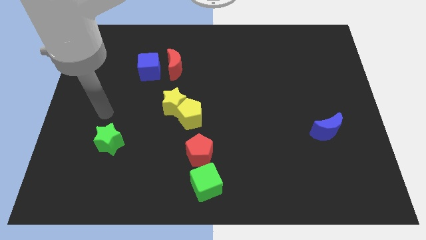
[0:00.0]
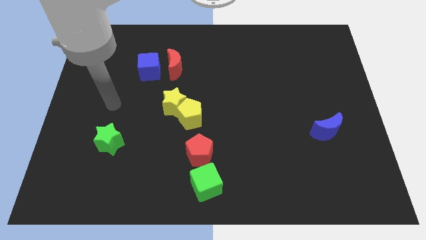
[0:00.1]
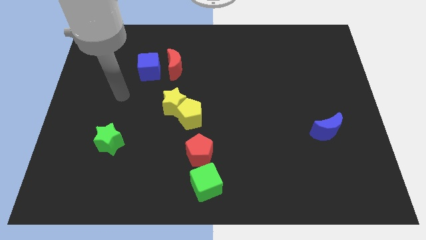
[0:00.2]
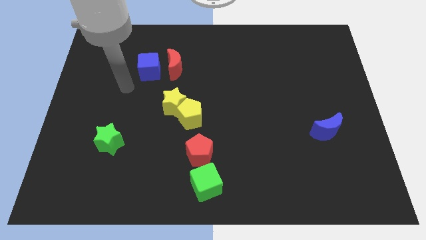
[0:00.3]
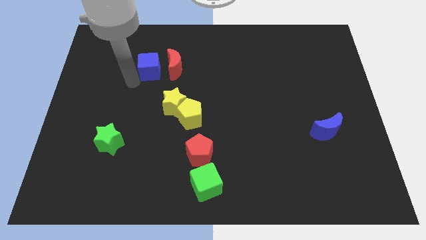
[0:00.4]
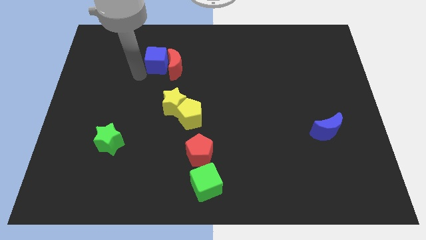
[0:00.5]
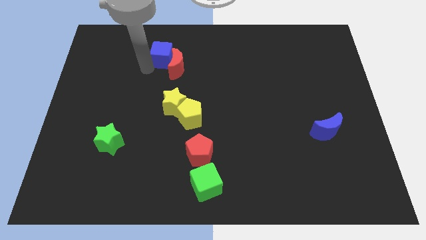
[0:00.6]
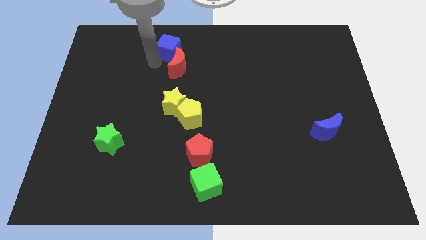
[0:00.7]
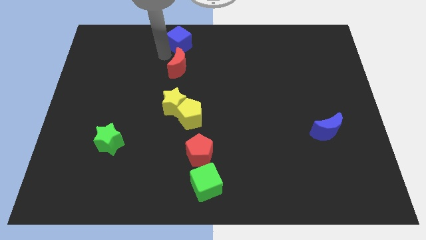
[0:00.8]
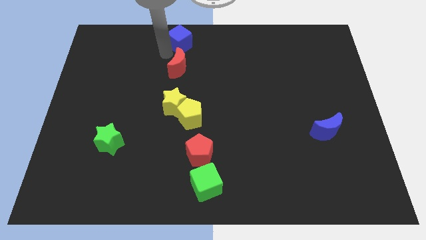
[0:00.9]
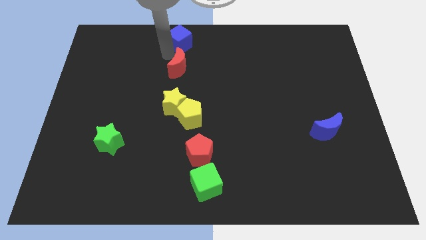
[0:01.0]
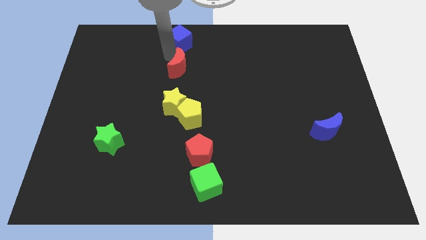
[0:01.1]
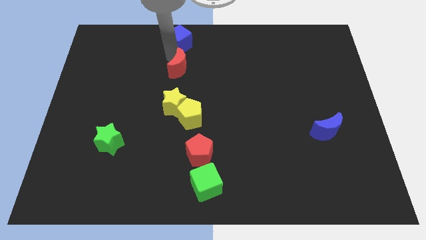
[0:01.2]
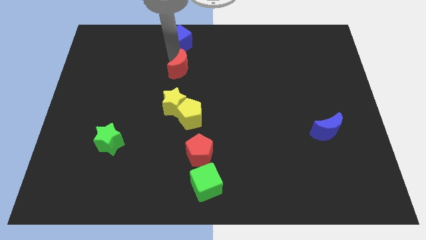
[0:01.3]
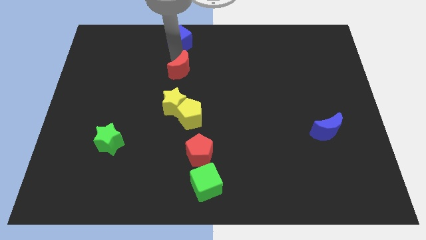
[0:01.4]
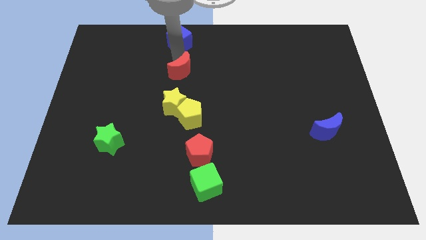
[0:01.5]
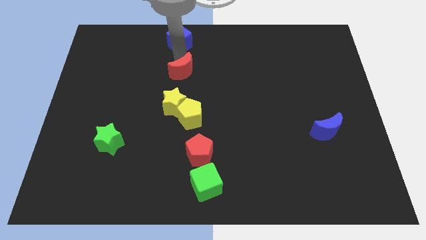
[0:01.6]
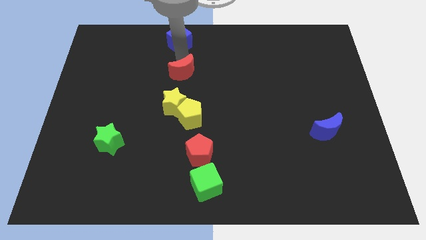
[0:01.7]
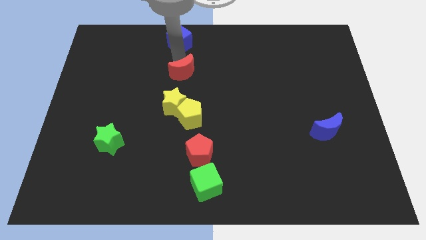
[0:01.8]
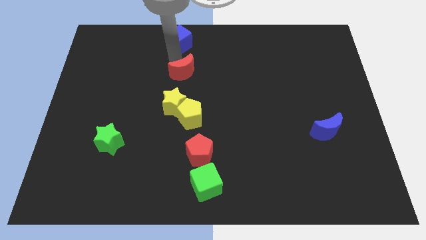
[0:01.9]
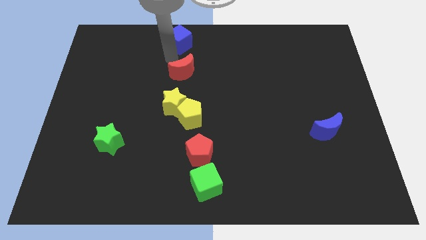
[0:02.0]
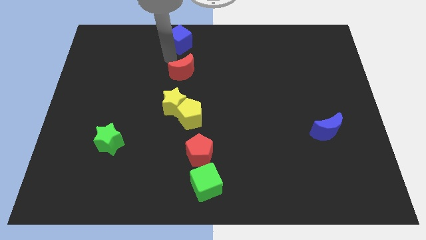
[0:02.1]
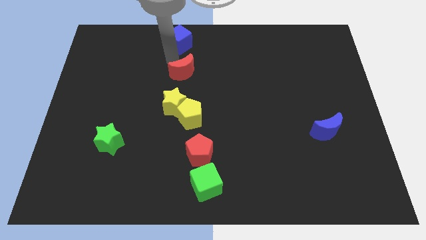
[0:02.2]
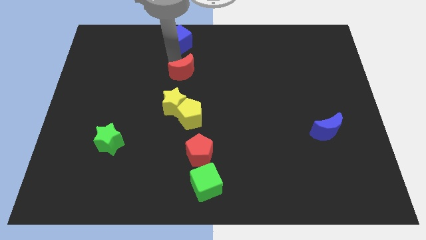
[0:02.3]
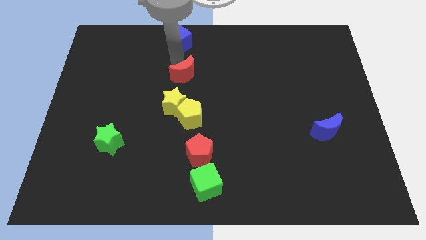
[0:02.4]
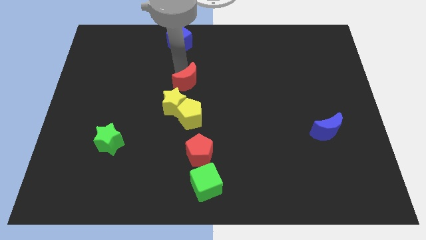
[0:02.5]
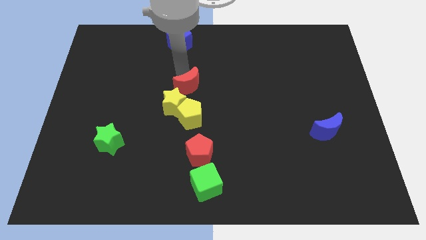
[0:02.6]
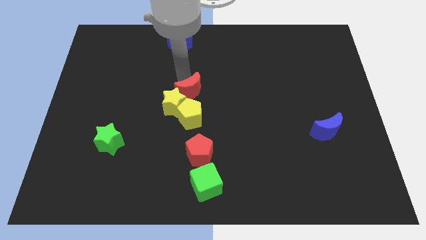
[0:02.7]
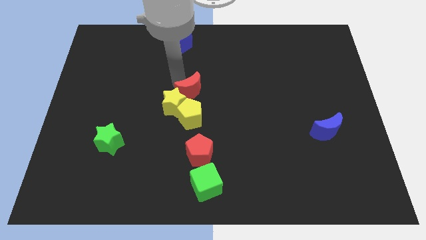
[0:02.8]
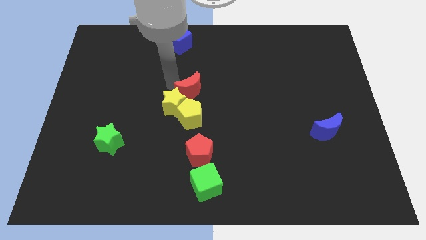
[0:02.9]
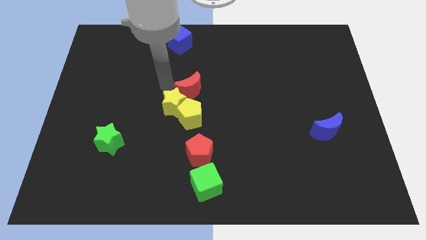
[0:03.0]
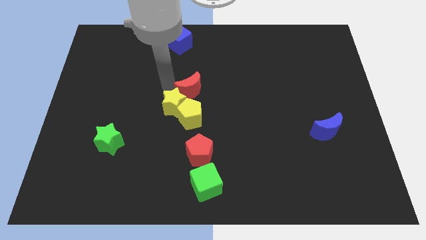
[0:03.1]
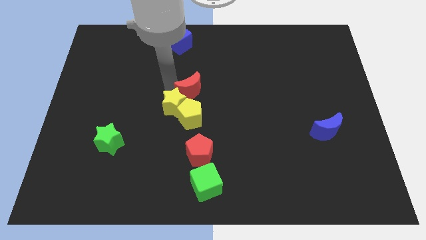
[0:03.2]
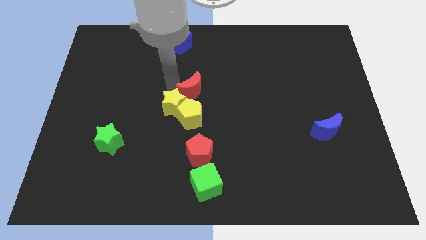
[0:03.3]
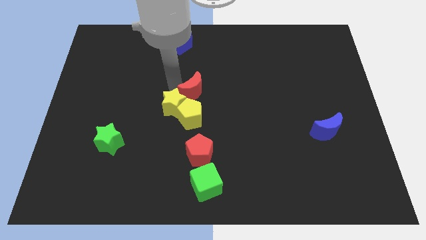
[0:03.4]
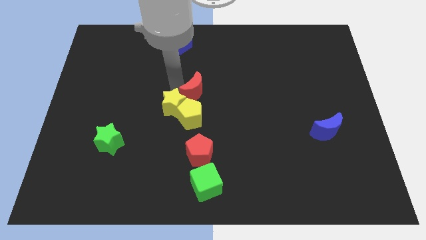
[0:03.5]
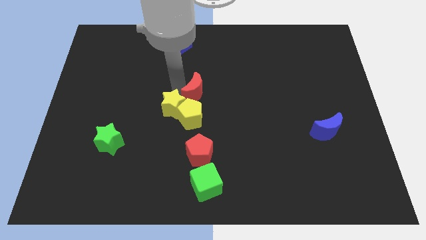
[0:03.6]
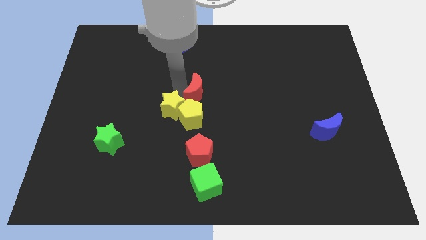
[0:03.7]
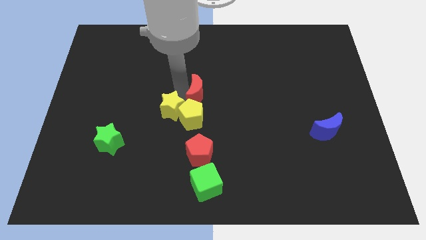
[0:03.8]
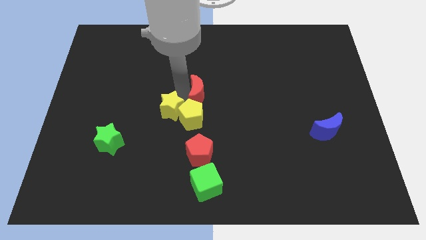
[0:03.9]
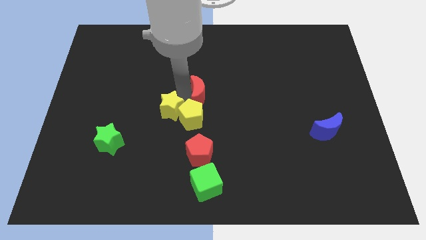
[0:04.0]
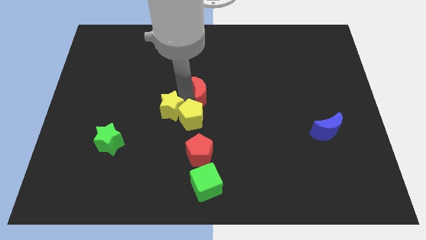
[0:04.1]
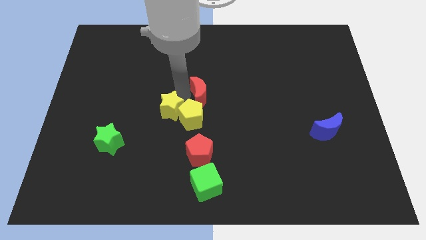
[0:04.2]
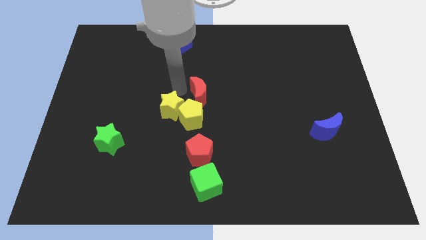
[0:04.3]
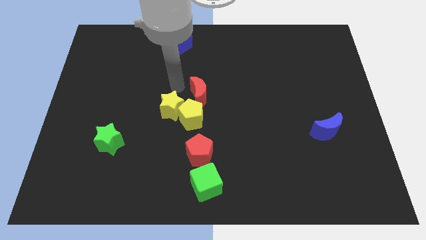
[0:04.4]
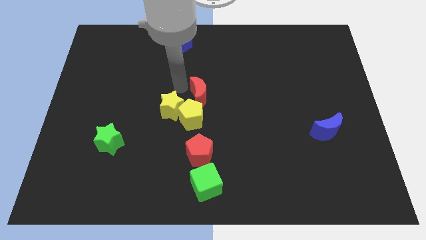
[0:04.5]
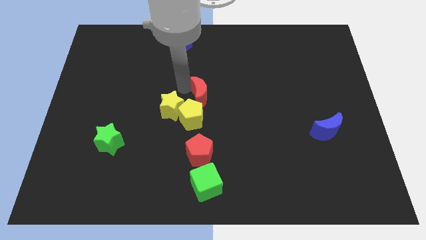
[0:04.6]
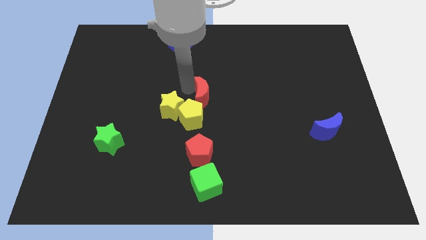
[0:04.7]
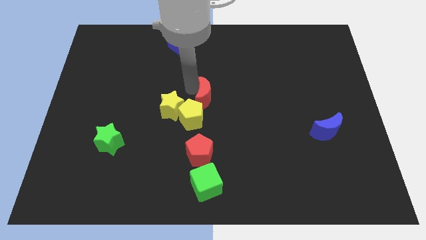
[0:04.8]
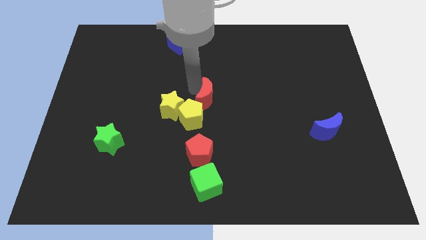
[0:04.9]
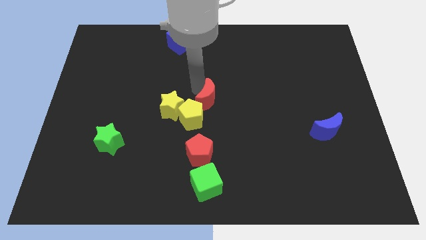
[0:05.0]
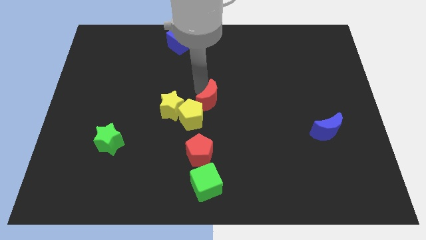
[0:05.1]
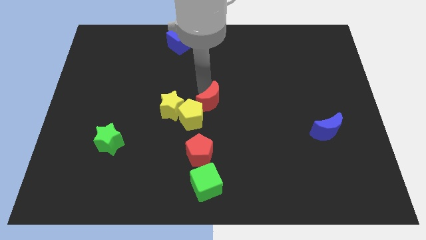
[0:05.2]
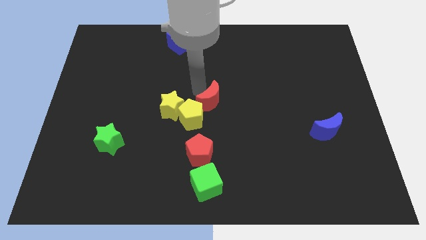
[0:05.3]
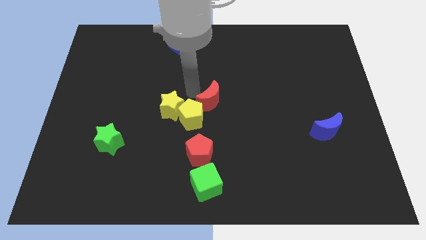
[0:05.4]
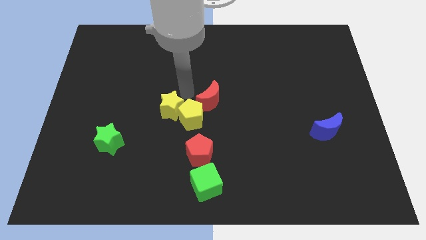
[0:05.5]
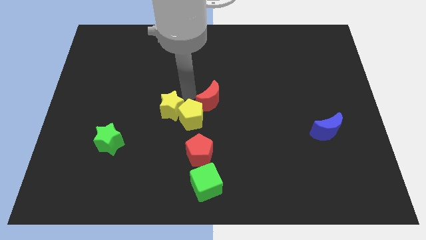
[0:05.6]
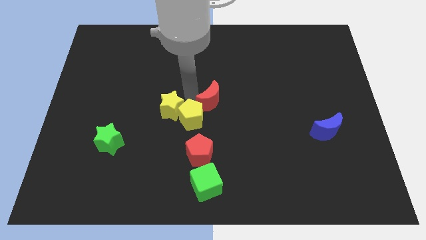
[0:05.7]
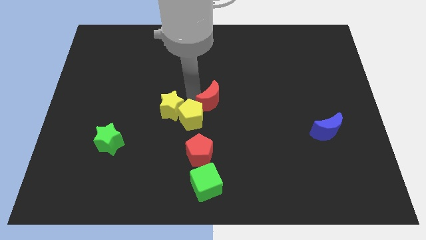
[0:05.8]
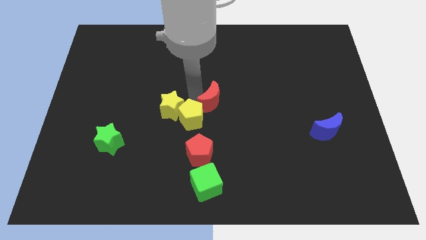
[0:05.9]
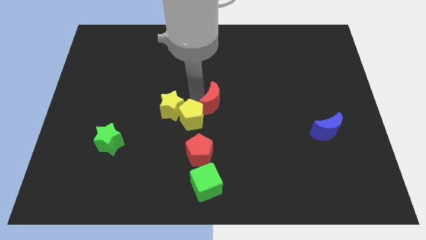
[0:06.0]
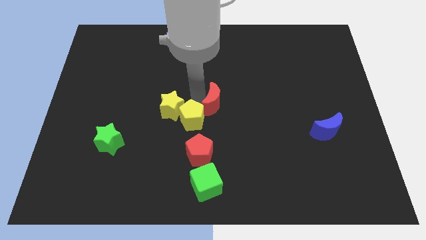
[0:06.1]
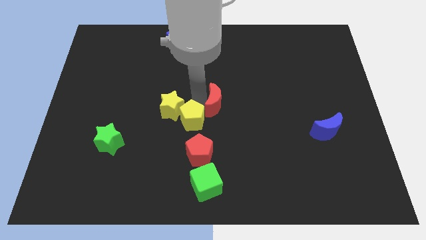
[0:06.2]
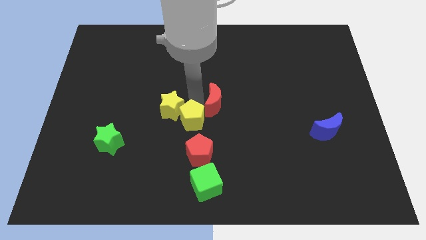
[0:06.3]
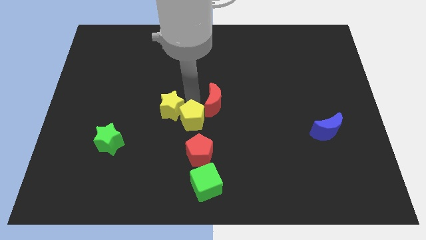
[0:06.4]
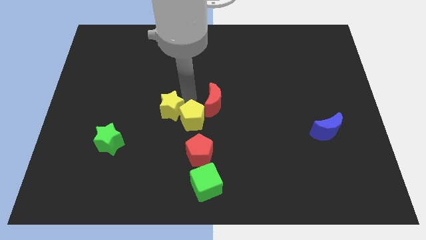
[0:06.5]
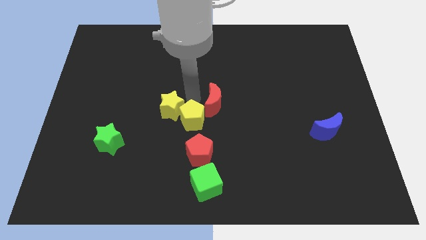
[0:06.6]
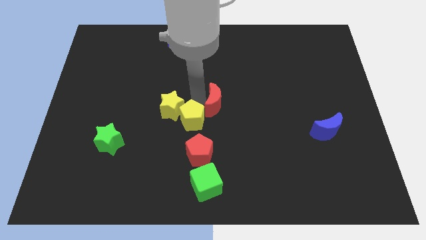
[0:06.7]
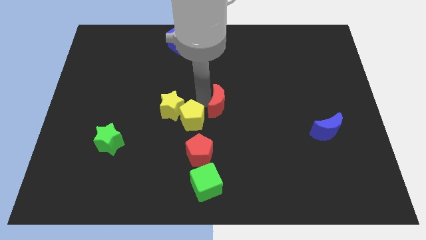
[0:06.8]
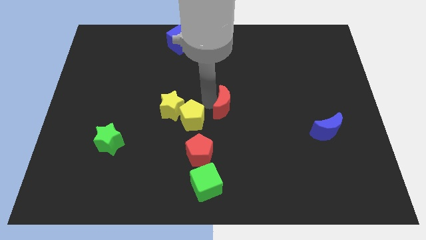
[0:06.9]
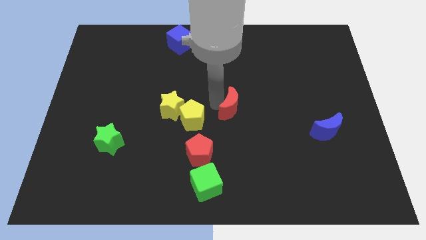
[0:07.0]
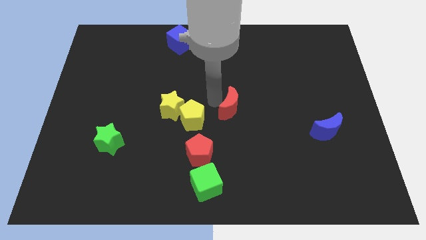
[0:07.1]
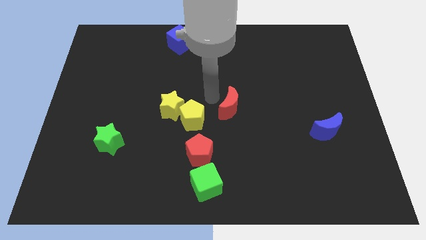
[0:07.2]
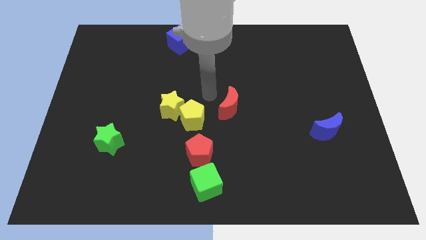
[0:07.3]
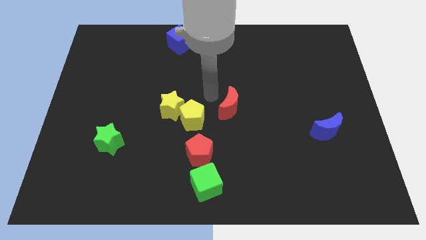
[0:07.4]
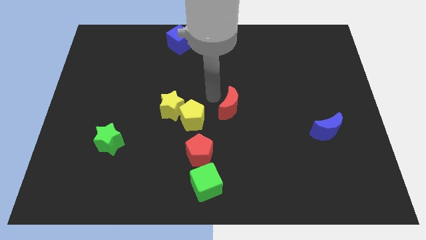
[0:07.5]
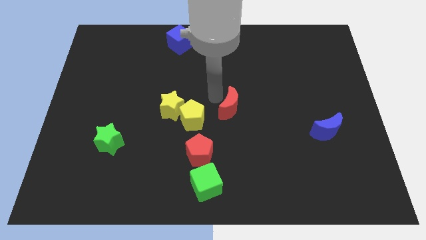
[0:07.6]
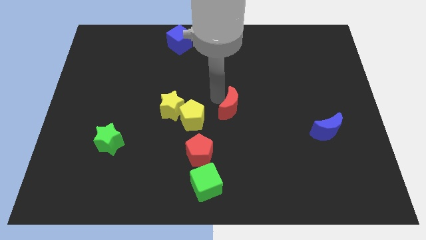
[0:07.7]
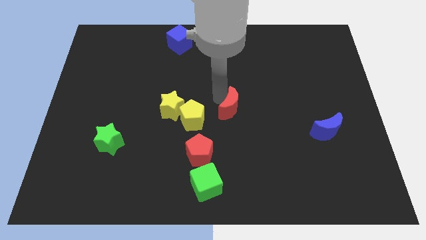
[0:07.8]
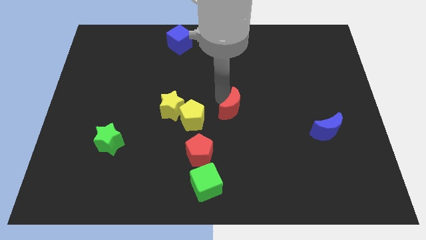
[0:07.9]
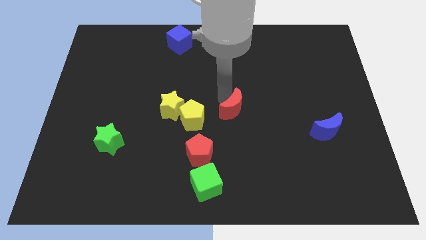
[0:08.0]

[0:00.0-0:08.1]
push the red moon down and to the right diagonally
